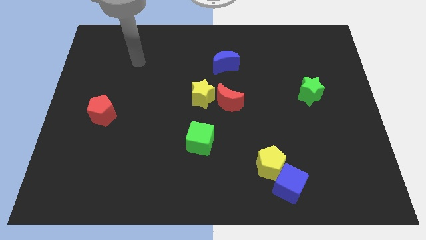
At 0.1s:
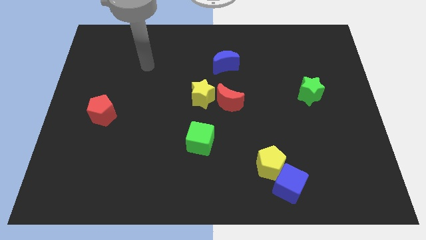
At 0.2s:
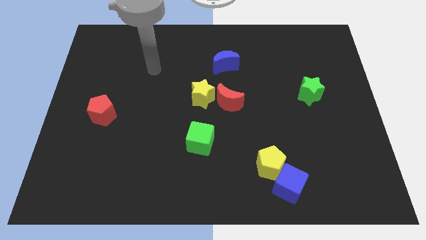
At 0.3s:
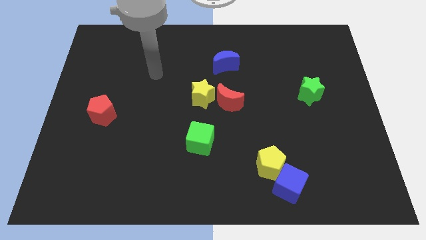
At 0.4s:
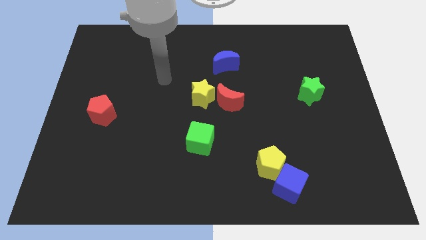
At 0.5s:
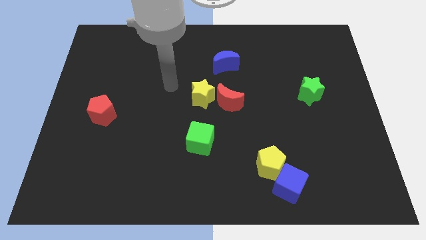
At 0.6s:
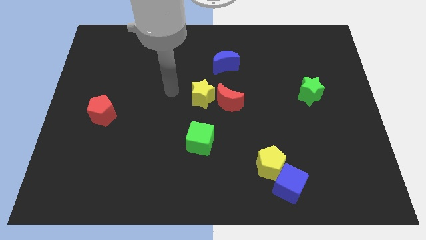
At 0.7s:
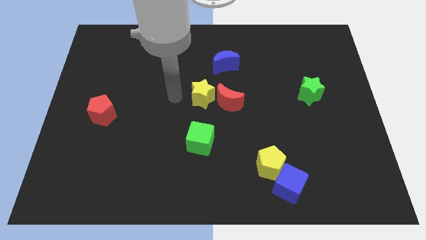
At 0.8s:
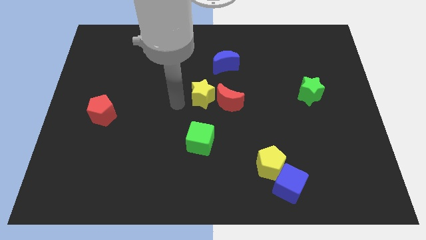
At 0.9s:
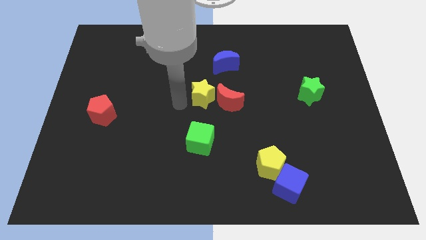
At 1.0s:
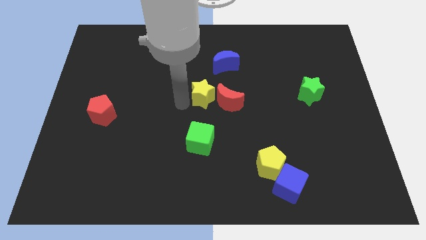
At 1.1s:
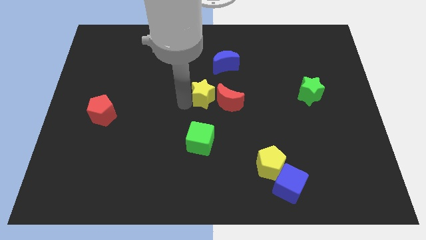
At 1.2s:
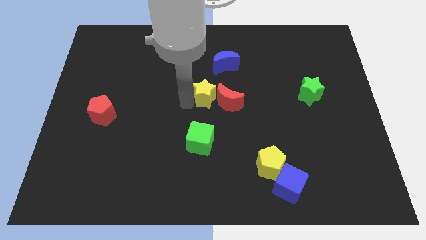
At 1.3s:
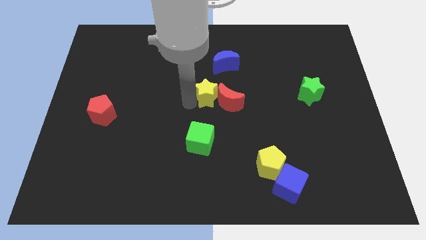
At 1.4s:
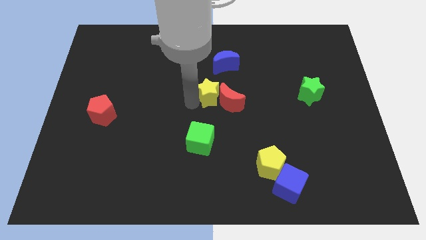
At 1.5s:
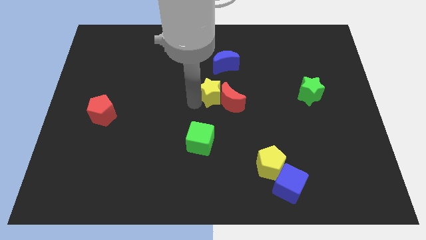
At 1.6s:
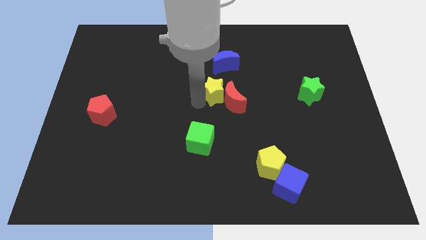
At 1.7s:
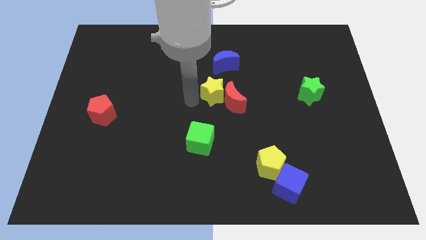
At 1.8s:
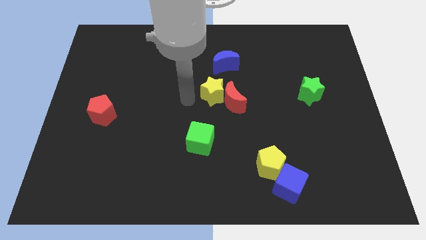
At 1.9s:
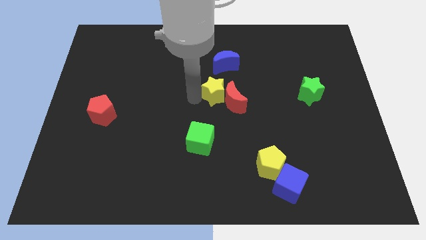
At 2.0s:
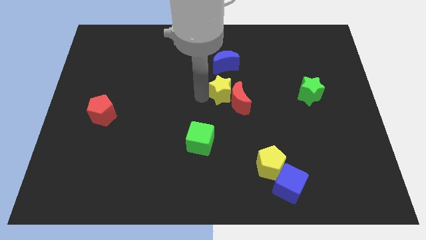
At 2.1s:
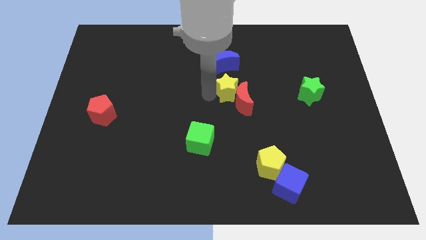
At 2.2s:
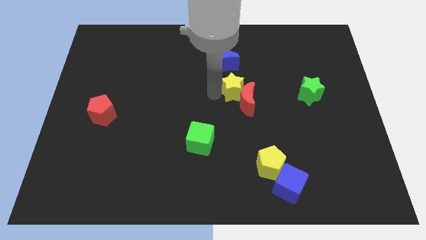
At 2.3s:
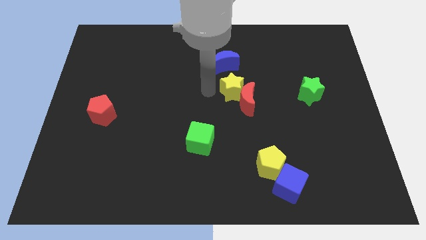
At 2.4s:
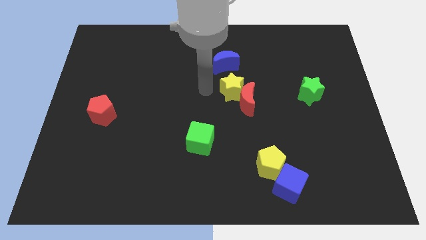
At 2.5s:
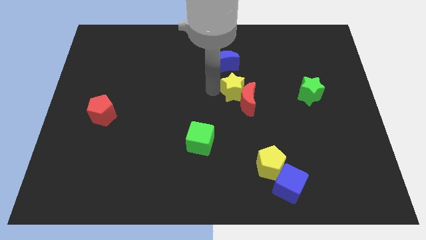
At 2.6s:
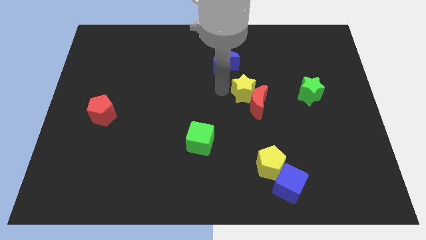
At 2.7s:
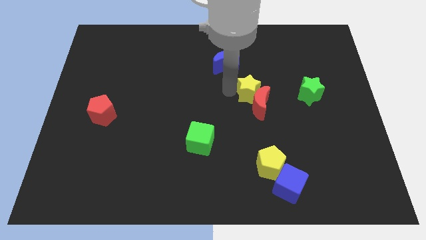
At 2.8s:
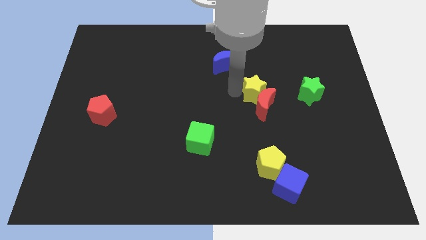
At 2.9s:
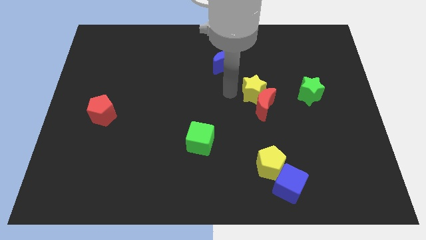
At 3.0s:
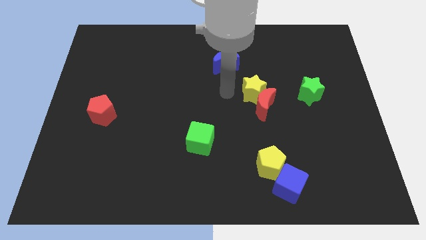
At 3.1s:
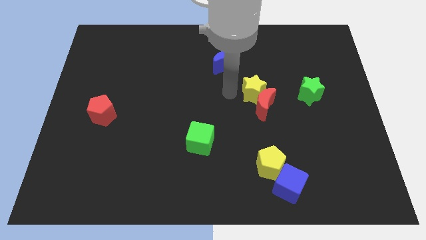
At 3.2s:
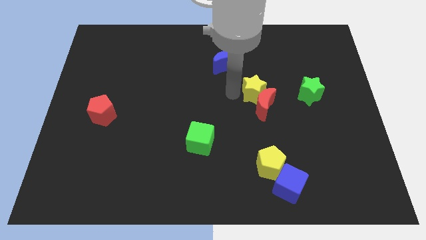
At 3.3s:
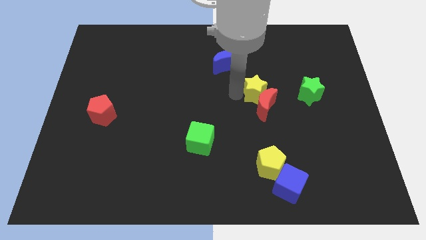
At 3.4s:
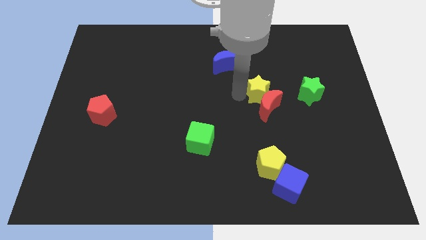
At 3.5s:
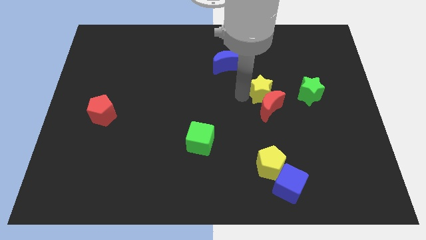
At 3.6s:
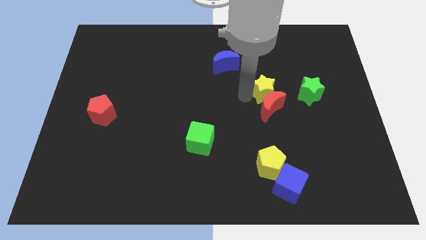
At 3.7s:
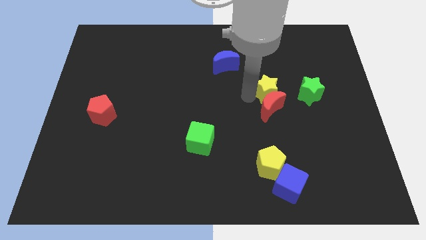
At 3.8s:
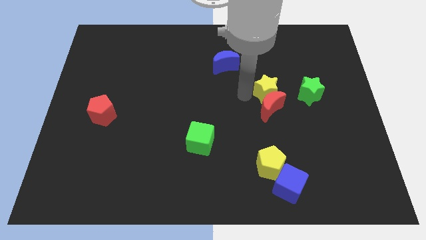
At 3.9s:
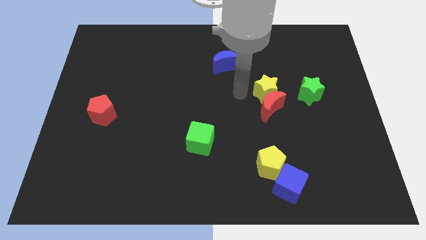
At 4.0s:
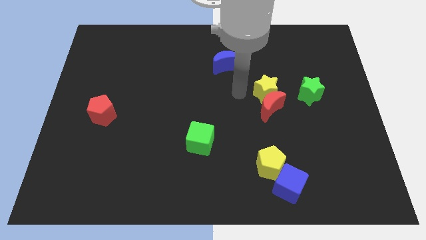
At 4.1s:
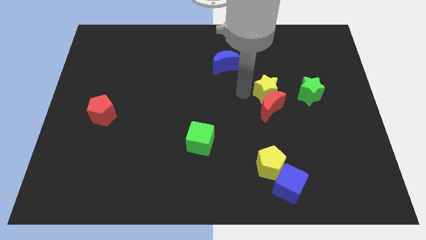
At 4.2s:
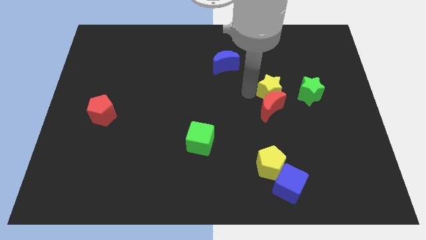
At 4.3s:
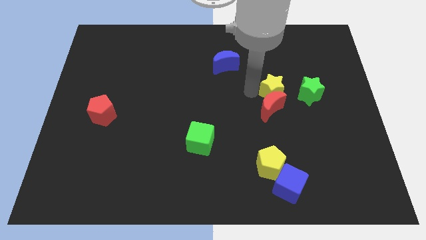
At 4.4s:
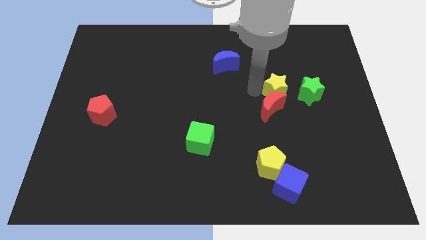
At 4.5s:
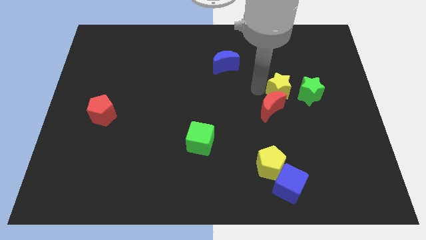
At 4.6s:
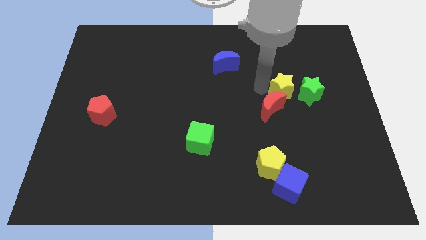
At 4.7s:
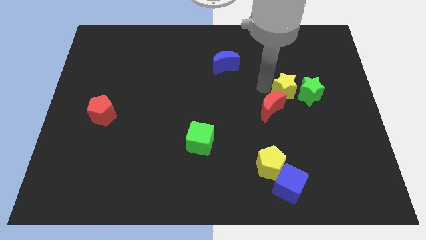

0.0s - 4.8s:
move the yellow star towards the green star

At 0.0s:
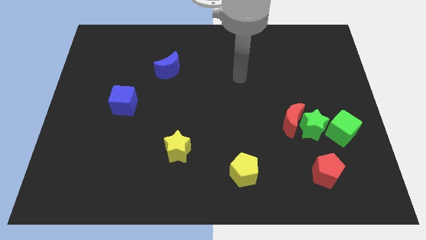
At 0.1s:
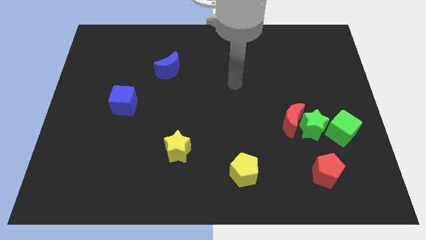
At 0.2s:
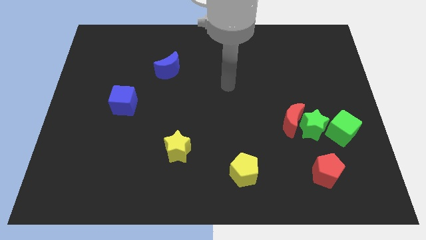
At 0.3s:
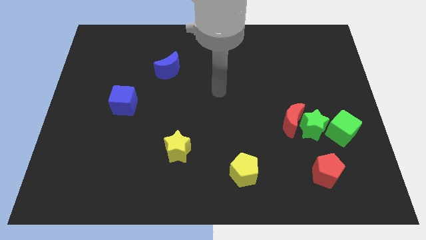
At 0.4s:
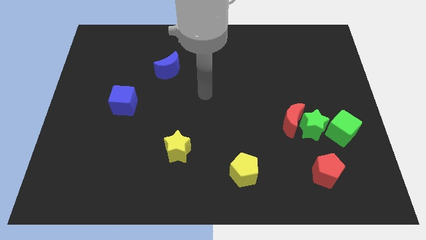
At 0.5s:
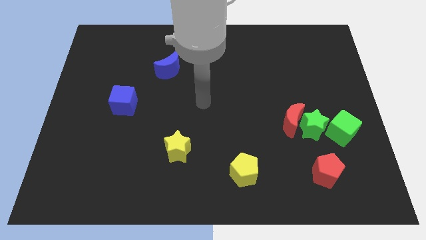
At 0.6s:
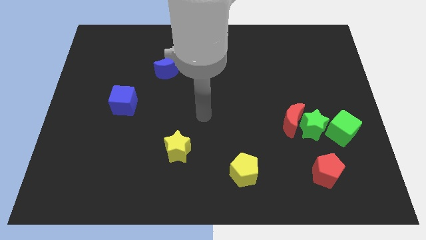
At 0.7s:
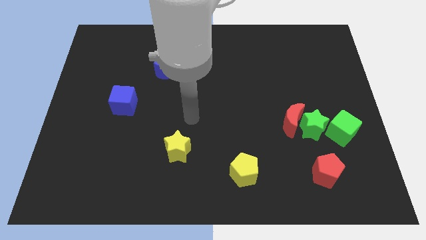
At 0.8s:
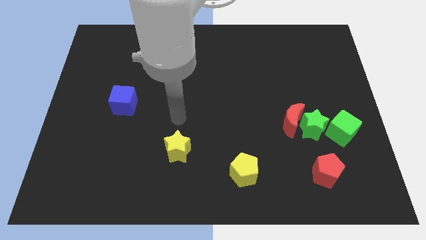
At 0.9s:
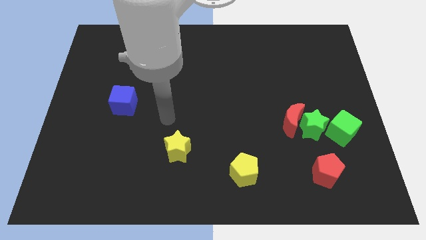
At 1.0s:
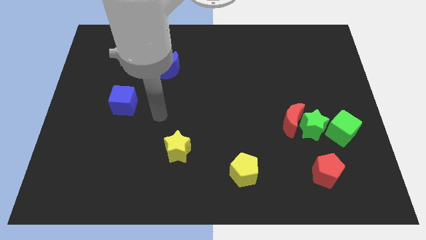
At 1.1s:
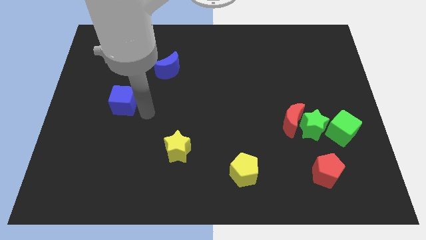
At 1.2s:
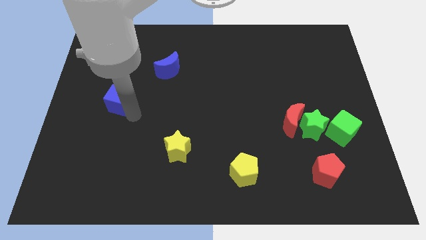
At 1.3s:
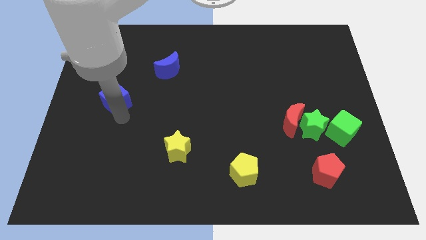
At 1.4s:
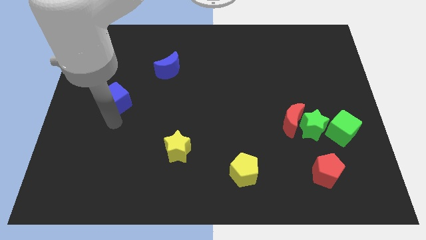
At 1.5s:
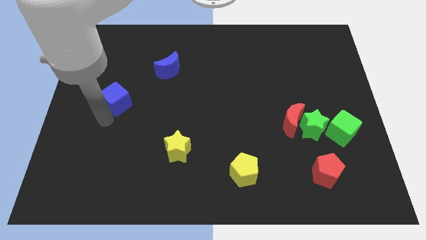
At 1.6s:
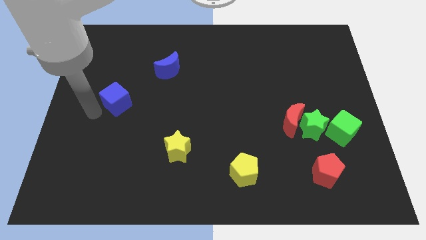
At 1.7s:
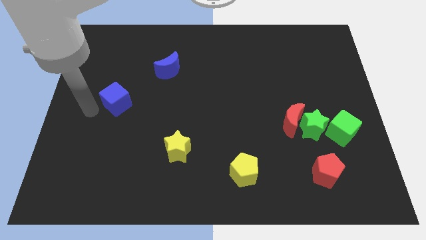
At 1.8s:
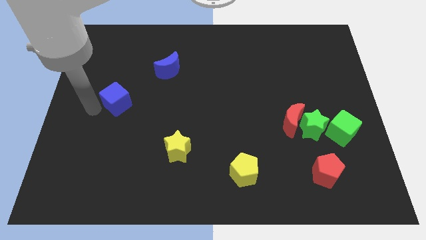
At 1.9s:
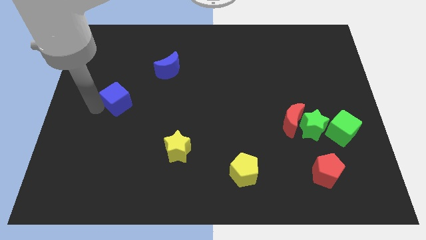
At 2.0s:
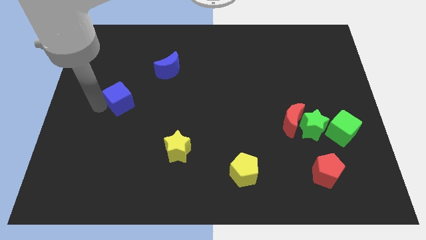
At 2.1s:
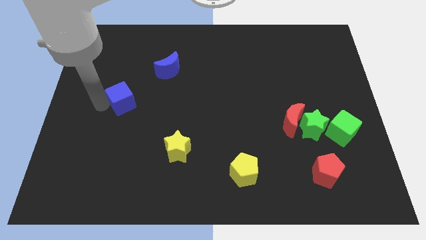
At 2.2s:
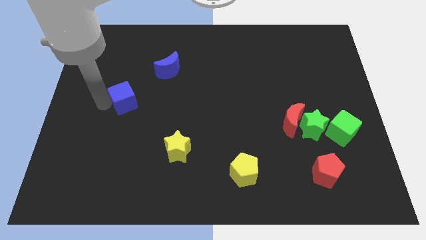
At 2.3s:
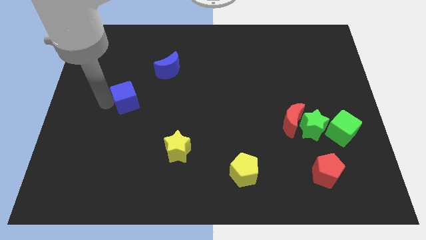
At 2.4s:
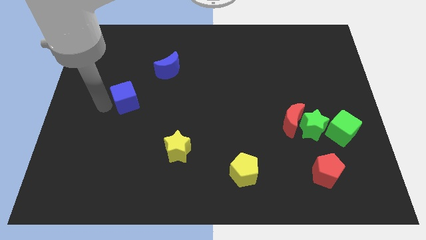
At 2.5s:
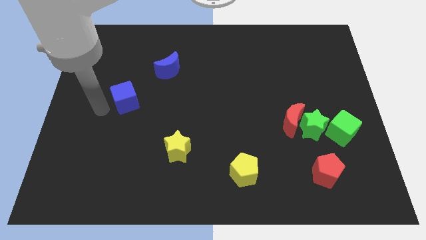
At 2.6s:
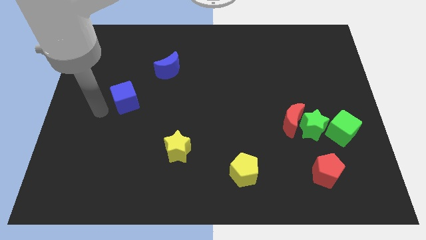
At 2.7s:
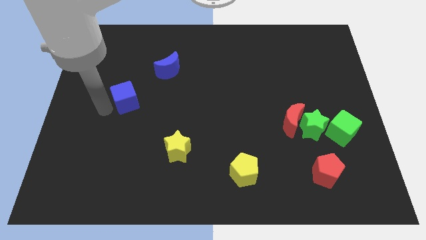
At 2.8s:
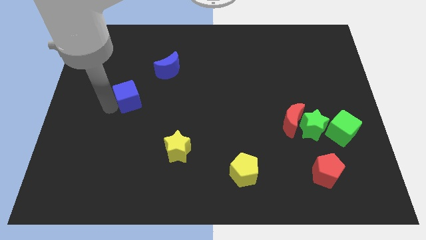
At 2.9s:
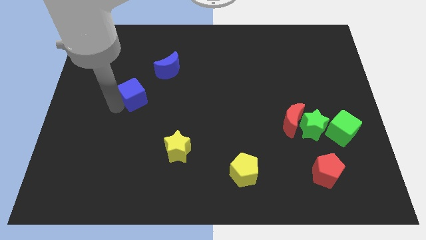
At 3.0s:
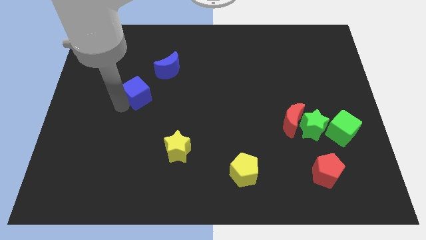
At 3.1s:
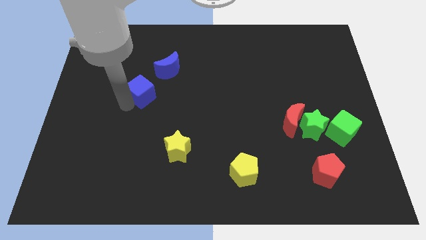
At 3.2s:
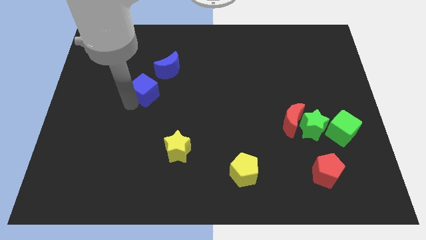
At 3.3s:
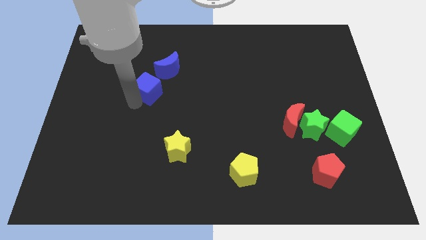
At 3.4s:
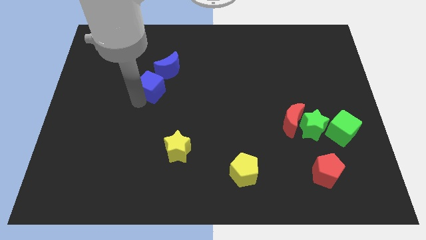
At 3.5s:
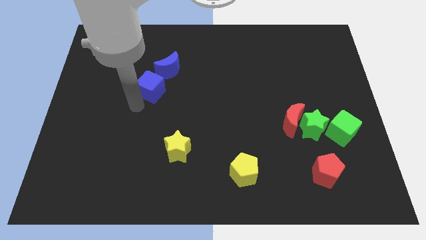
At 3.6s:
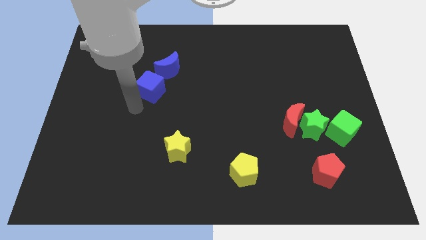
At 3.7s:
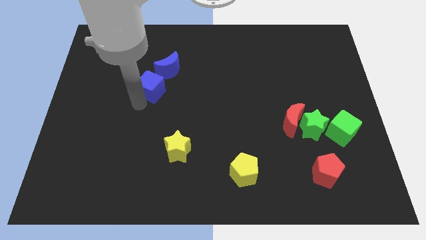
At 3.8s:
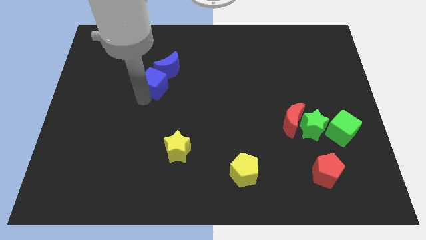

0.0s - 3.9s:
slide the blue cube next to the blue moon
